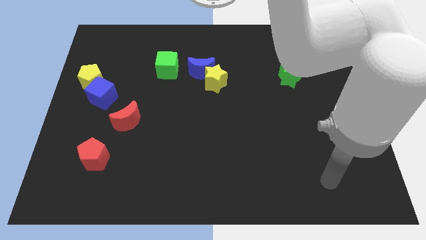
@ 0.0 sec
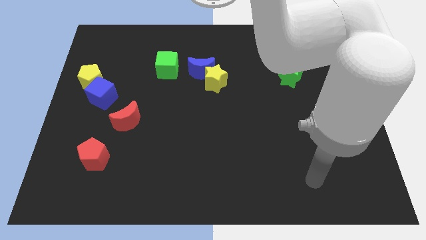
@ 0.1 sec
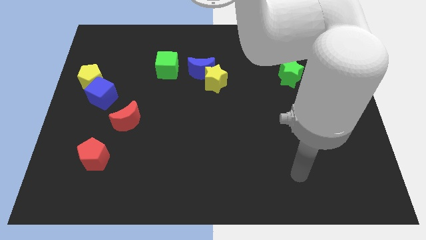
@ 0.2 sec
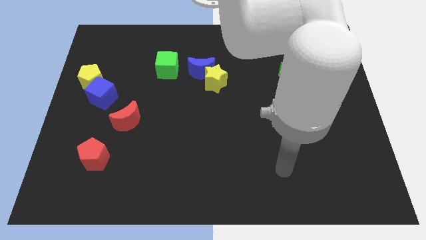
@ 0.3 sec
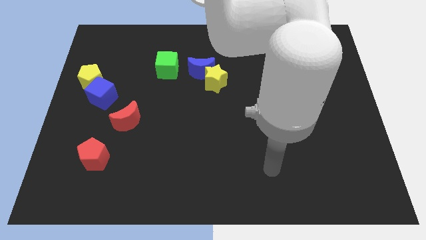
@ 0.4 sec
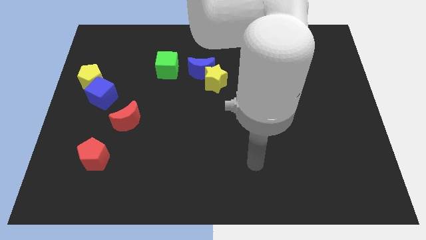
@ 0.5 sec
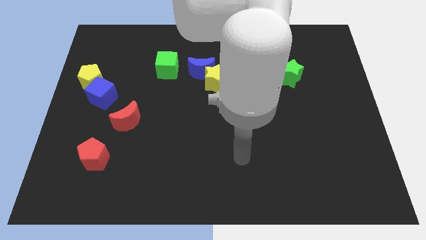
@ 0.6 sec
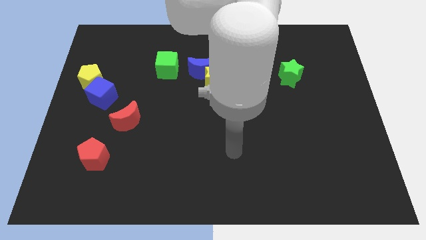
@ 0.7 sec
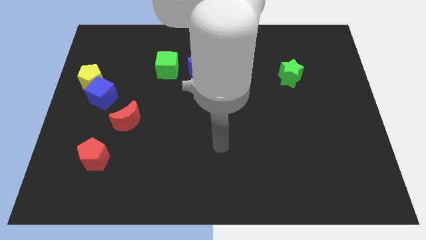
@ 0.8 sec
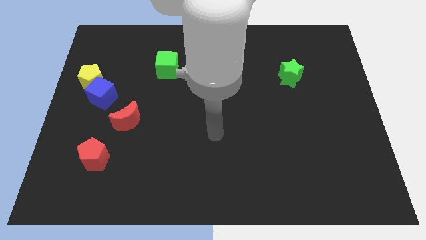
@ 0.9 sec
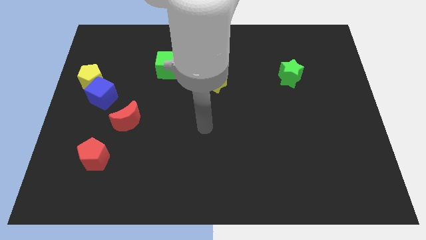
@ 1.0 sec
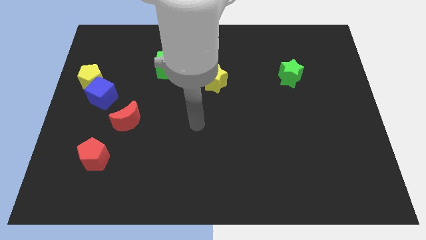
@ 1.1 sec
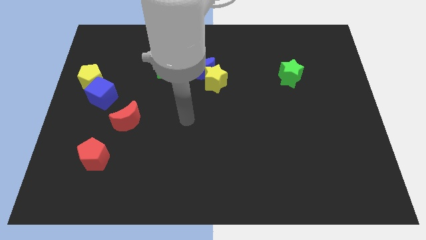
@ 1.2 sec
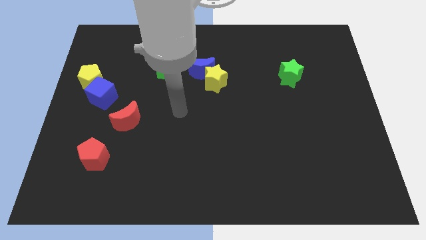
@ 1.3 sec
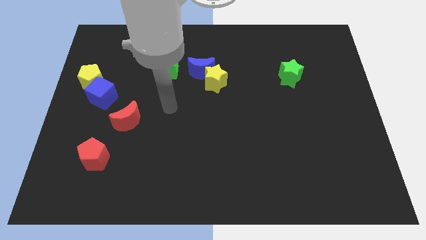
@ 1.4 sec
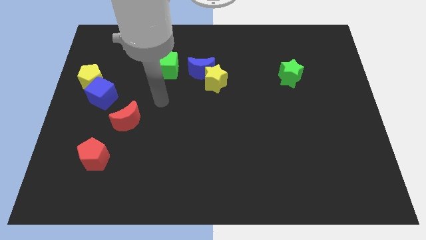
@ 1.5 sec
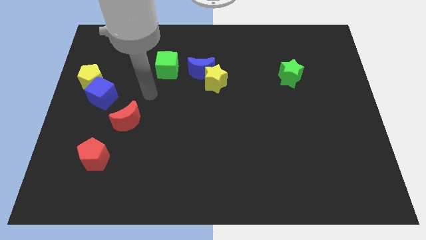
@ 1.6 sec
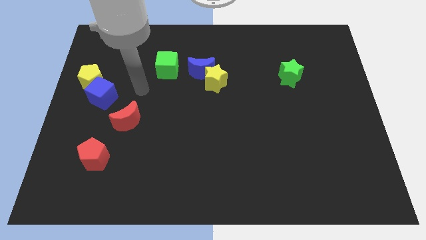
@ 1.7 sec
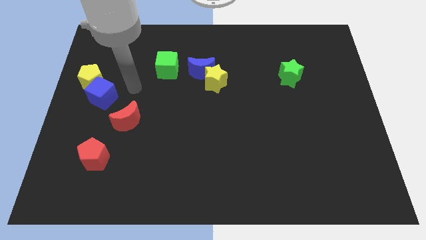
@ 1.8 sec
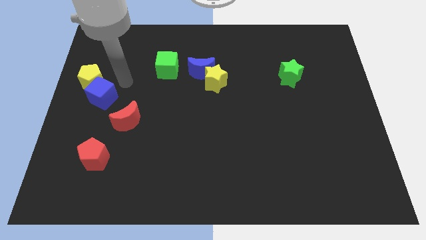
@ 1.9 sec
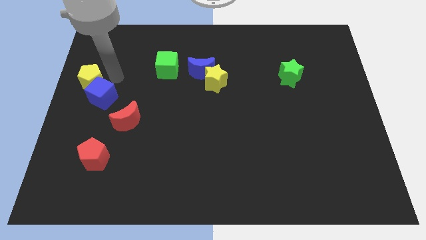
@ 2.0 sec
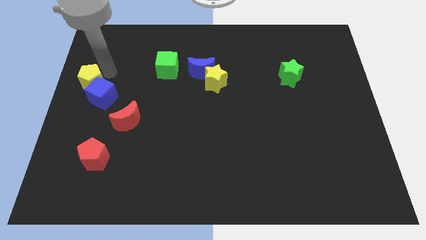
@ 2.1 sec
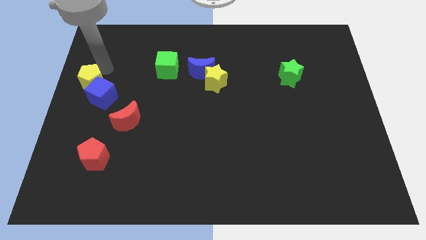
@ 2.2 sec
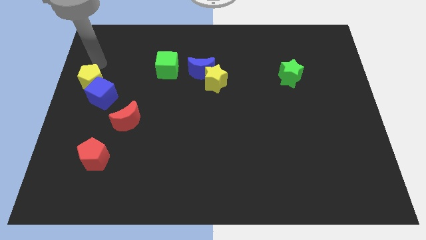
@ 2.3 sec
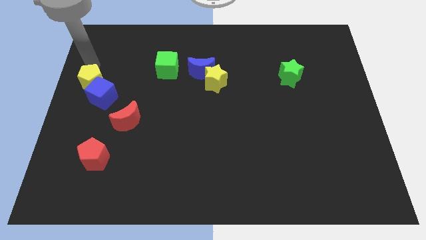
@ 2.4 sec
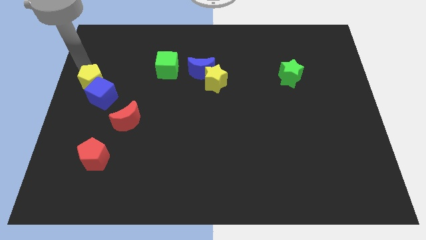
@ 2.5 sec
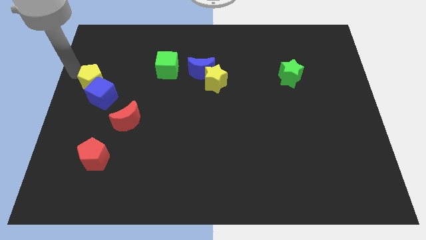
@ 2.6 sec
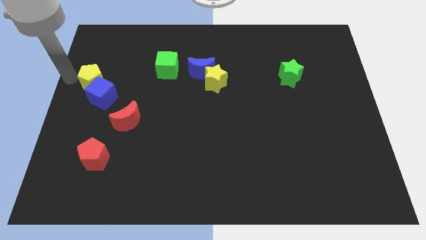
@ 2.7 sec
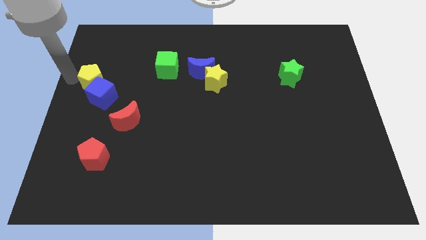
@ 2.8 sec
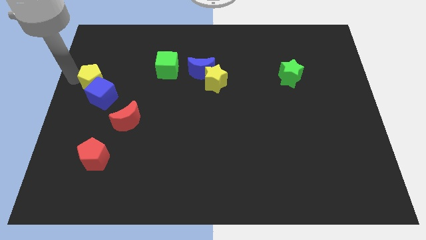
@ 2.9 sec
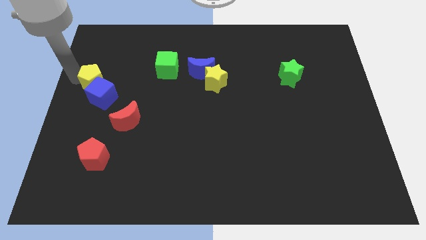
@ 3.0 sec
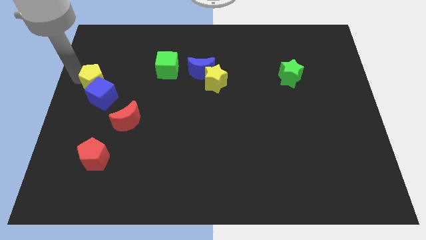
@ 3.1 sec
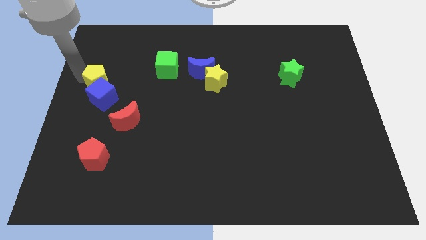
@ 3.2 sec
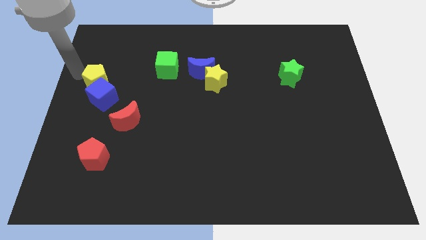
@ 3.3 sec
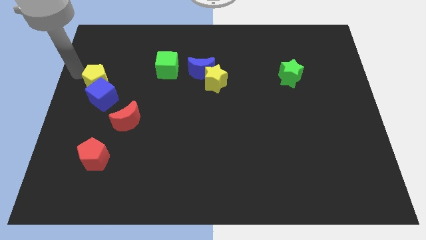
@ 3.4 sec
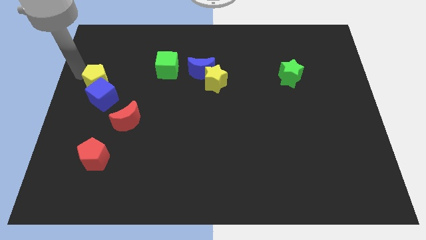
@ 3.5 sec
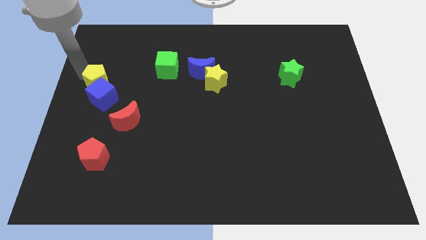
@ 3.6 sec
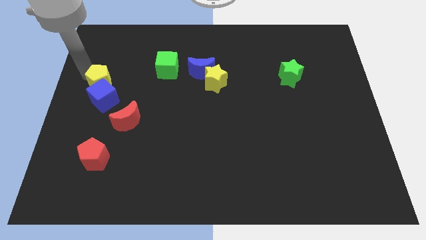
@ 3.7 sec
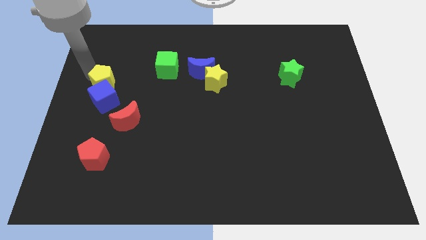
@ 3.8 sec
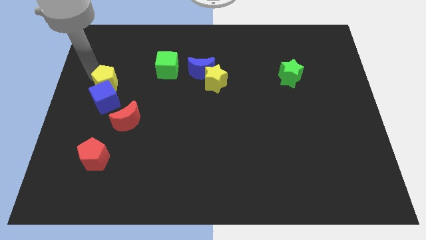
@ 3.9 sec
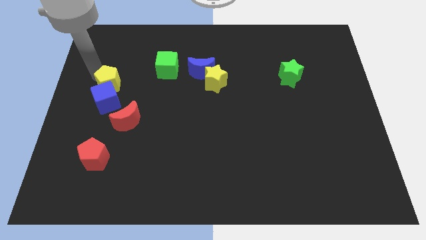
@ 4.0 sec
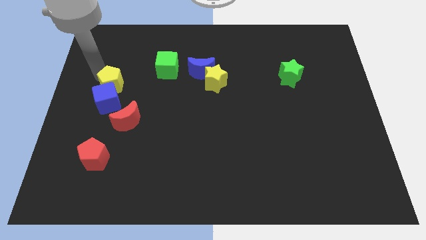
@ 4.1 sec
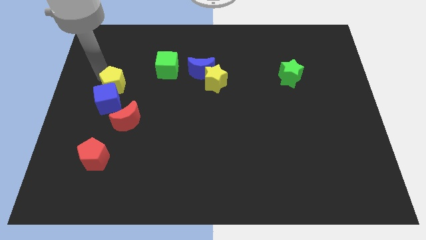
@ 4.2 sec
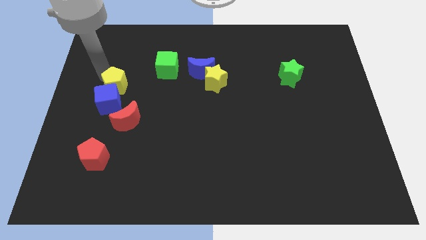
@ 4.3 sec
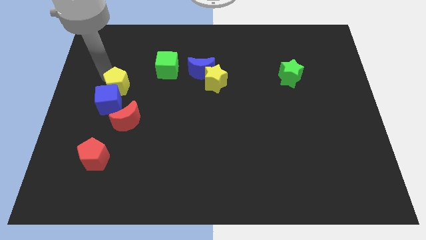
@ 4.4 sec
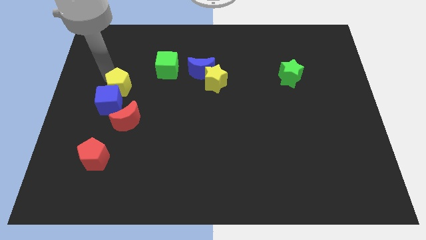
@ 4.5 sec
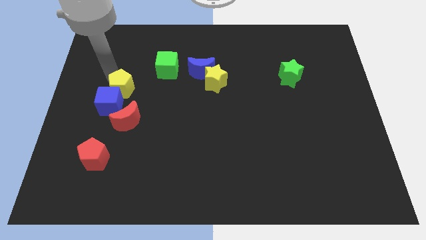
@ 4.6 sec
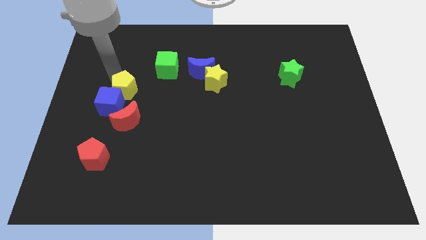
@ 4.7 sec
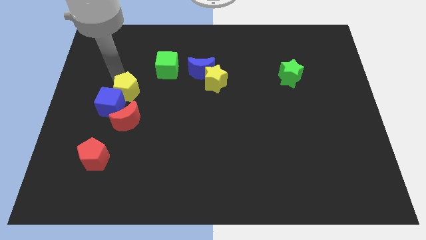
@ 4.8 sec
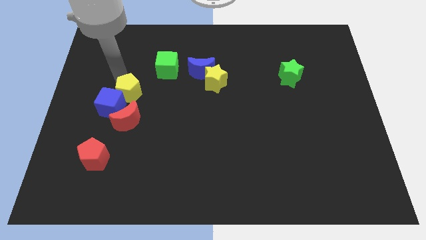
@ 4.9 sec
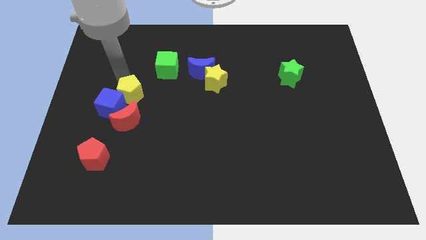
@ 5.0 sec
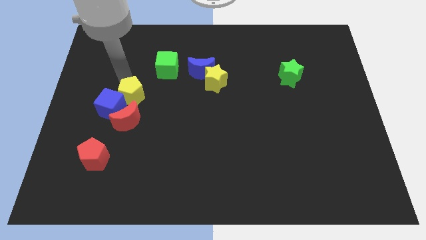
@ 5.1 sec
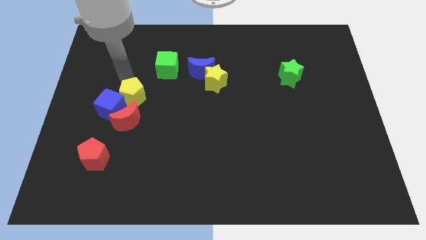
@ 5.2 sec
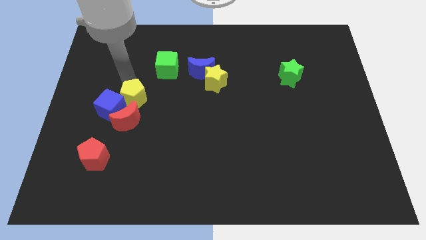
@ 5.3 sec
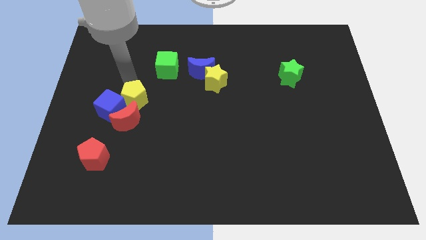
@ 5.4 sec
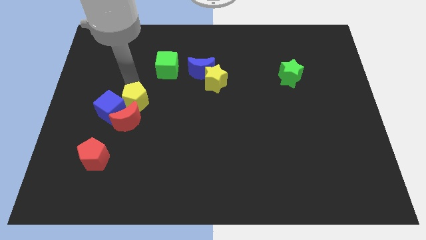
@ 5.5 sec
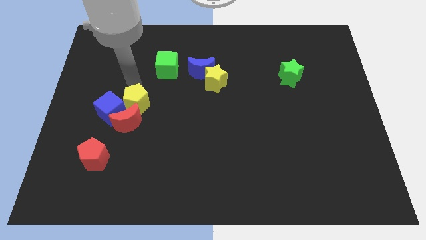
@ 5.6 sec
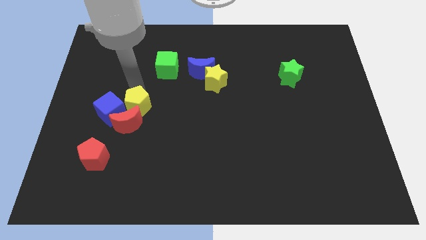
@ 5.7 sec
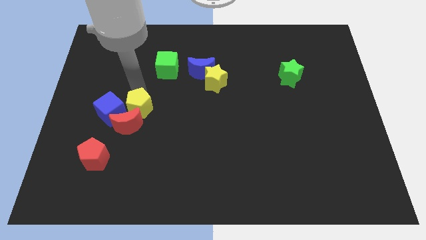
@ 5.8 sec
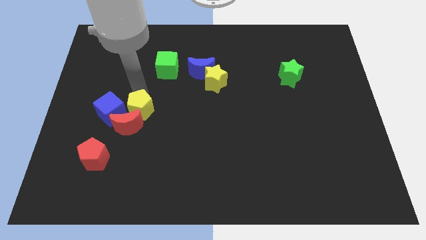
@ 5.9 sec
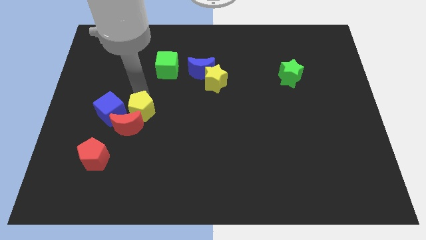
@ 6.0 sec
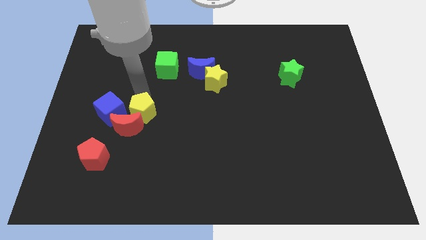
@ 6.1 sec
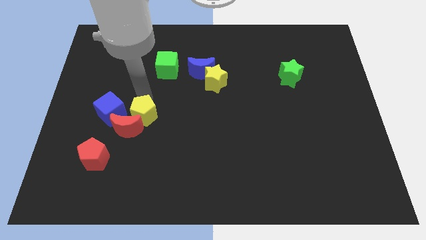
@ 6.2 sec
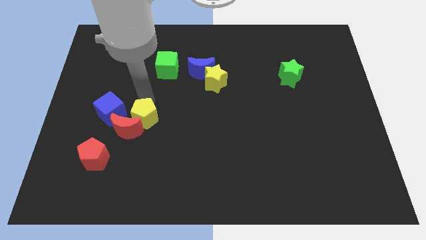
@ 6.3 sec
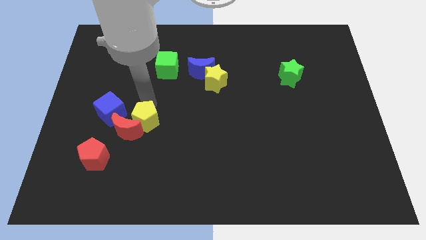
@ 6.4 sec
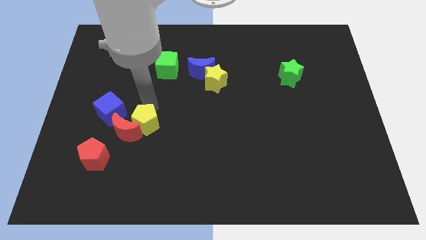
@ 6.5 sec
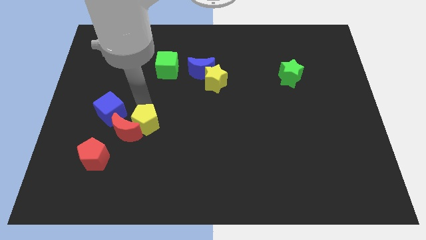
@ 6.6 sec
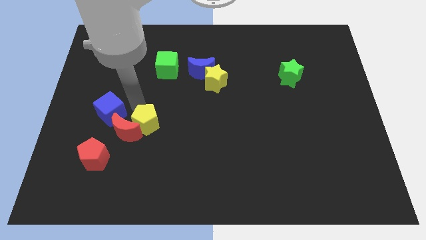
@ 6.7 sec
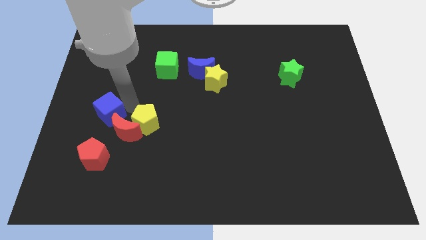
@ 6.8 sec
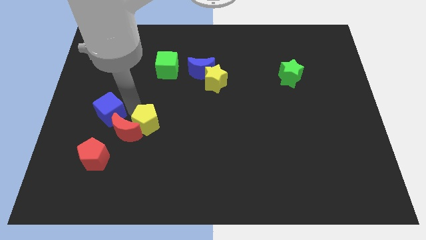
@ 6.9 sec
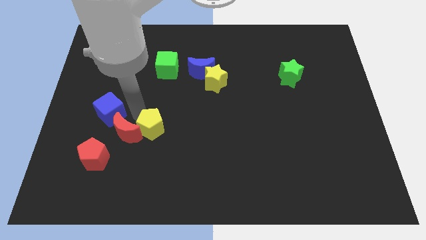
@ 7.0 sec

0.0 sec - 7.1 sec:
push the yellow pentagon down and right diagonally

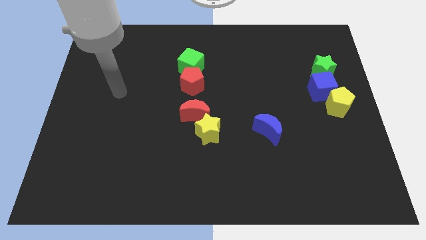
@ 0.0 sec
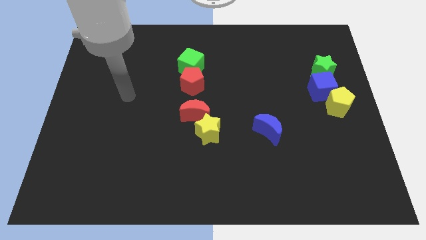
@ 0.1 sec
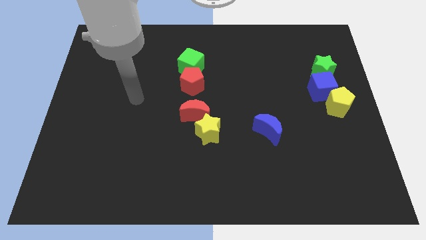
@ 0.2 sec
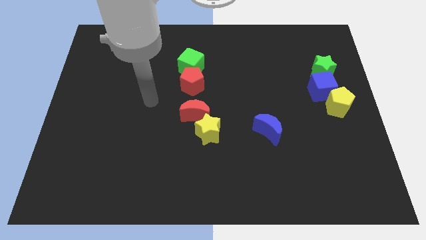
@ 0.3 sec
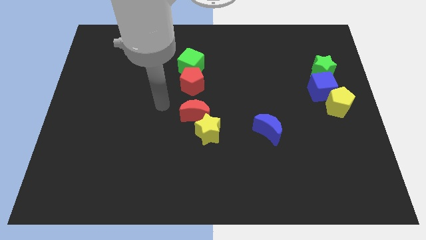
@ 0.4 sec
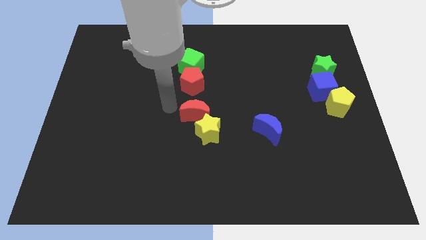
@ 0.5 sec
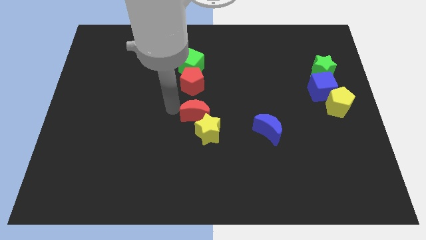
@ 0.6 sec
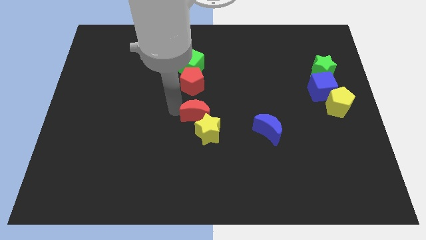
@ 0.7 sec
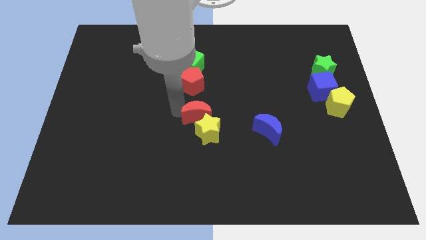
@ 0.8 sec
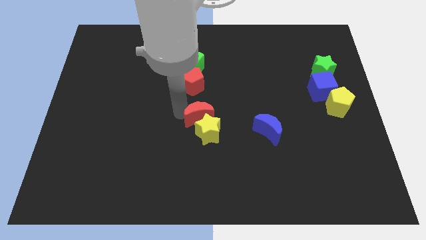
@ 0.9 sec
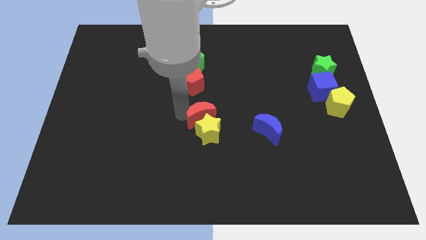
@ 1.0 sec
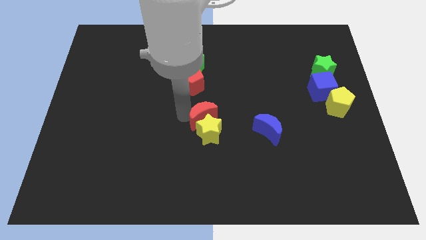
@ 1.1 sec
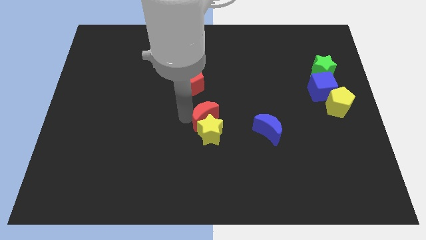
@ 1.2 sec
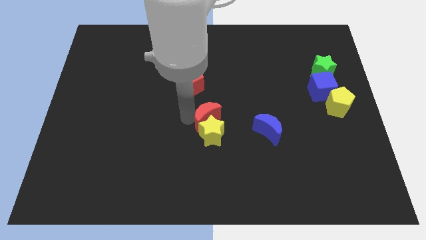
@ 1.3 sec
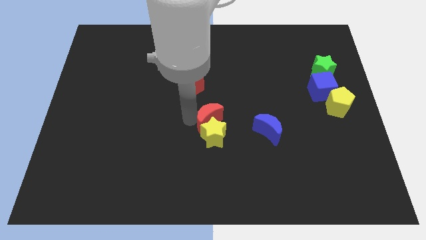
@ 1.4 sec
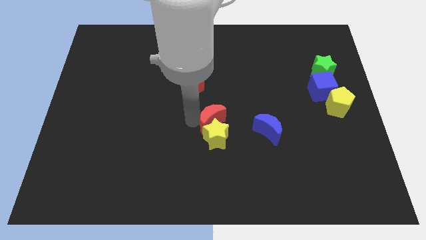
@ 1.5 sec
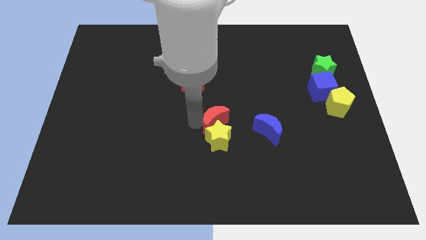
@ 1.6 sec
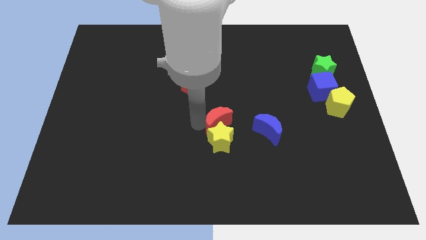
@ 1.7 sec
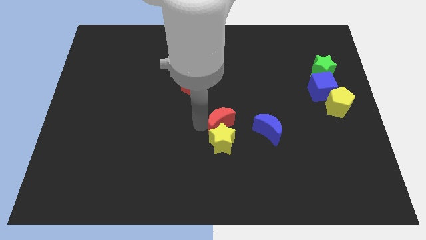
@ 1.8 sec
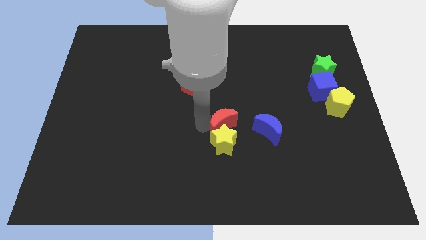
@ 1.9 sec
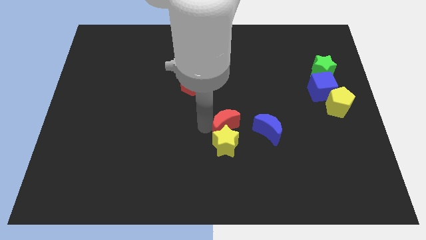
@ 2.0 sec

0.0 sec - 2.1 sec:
slightly slide the red moon down and to the right
